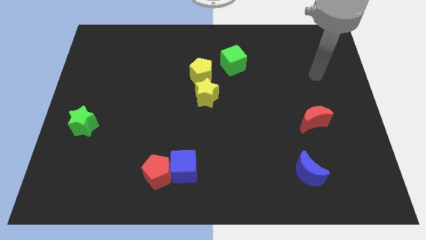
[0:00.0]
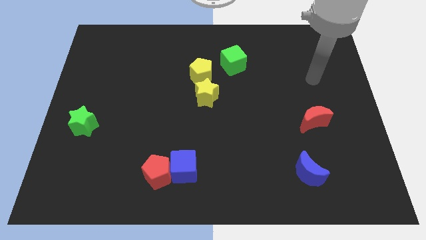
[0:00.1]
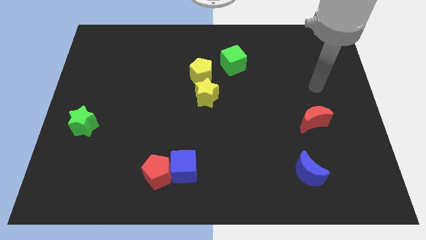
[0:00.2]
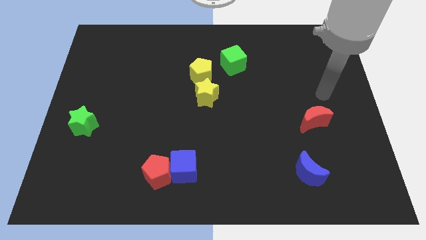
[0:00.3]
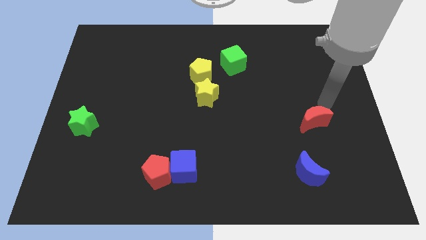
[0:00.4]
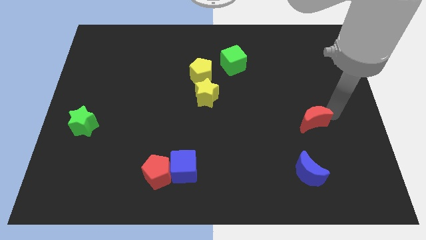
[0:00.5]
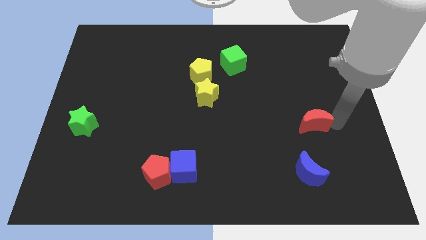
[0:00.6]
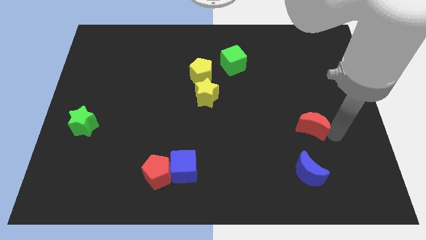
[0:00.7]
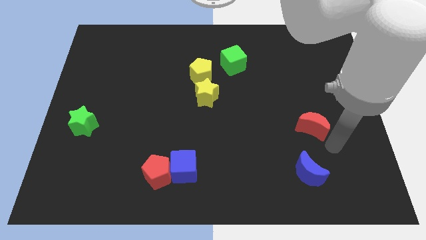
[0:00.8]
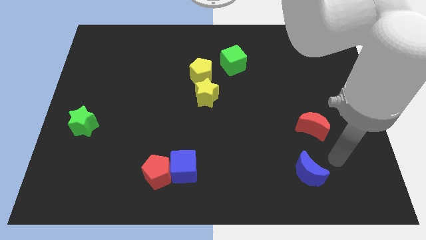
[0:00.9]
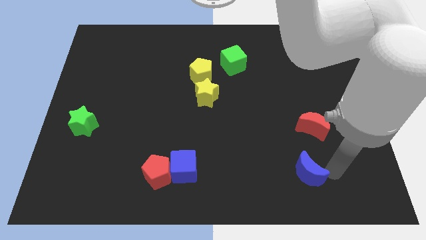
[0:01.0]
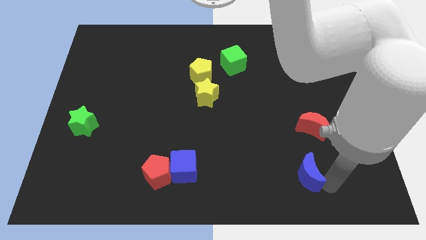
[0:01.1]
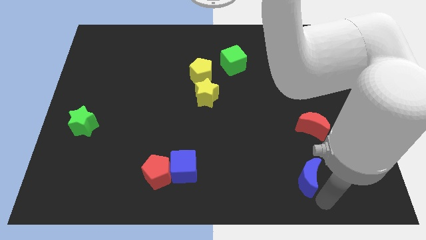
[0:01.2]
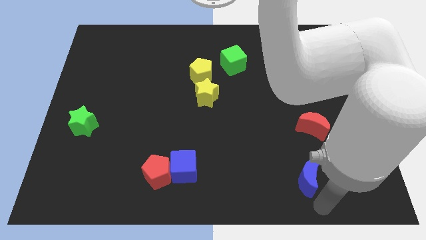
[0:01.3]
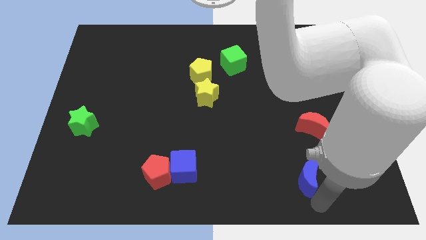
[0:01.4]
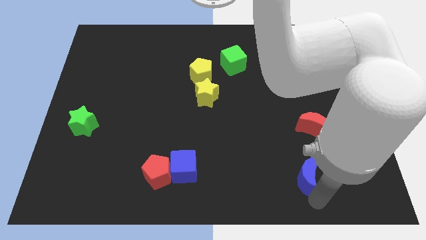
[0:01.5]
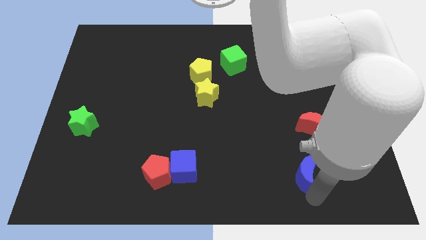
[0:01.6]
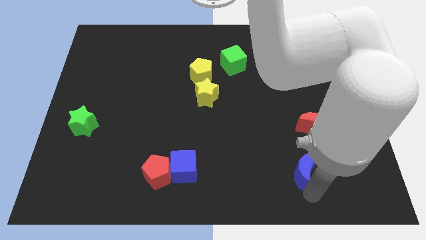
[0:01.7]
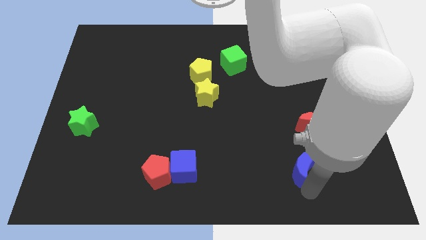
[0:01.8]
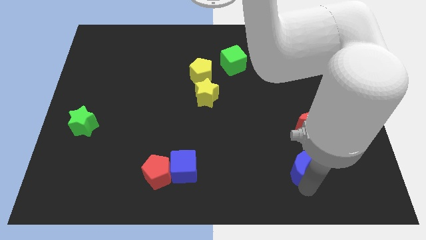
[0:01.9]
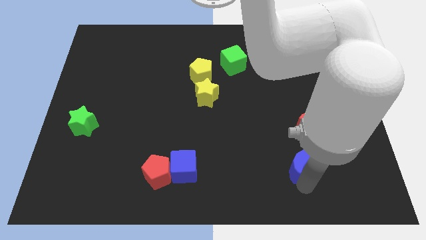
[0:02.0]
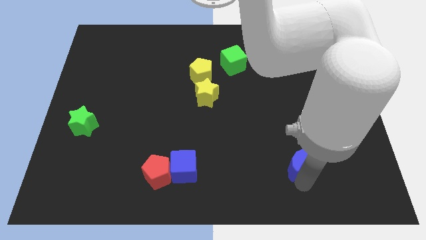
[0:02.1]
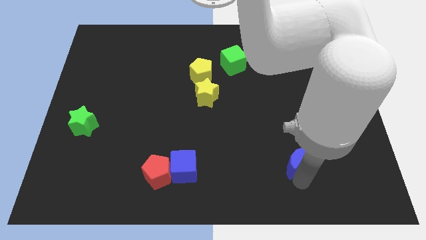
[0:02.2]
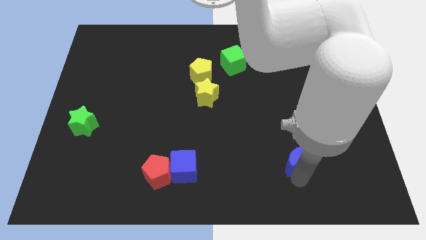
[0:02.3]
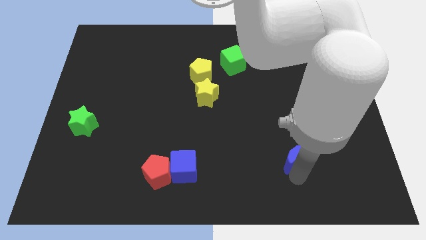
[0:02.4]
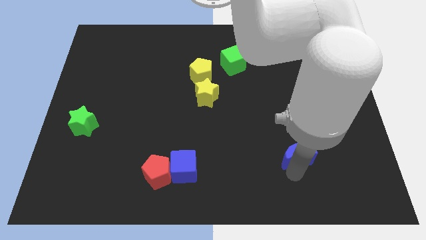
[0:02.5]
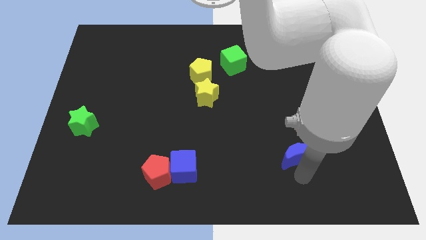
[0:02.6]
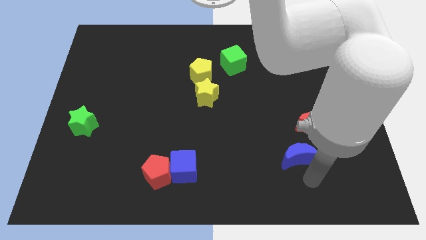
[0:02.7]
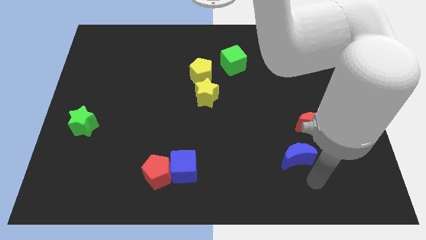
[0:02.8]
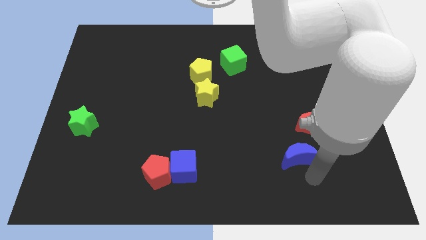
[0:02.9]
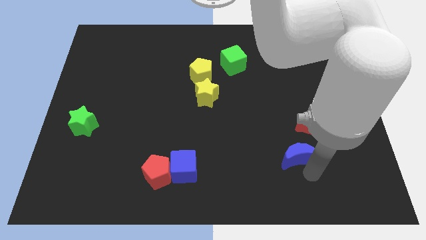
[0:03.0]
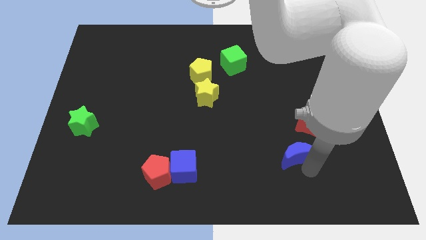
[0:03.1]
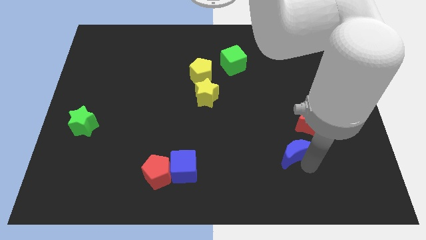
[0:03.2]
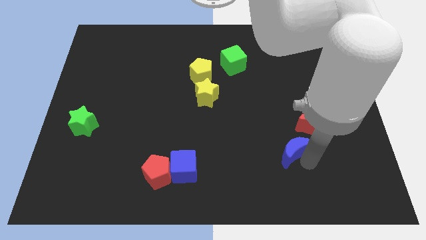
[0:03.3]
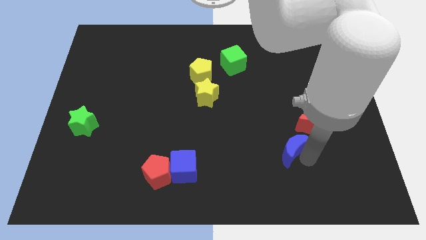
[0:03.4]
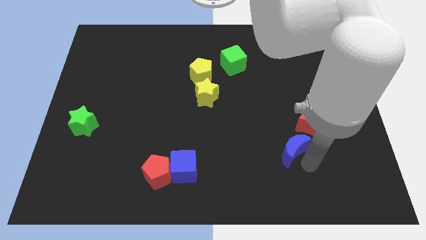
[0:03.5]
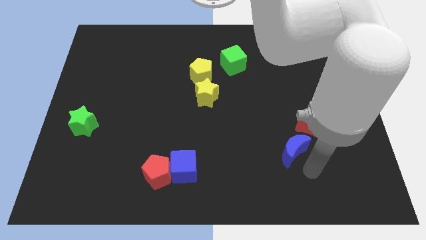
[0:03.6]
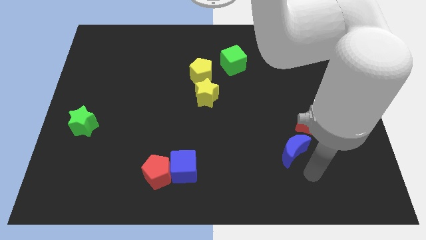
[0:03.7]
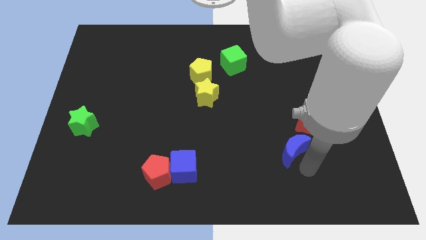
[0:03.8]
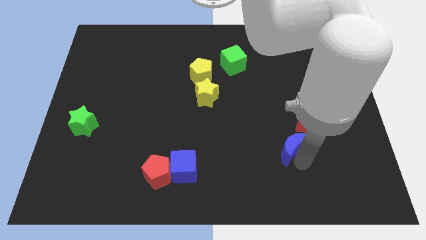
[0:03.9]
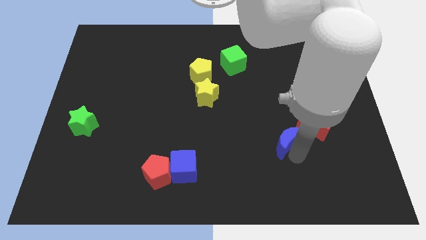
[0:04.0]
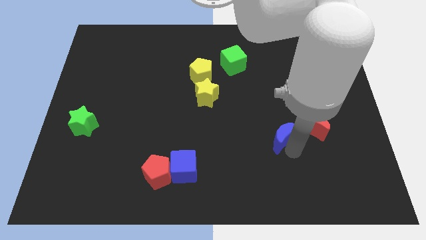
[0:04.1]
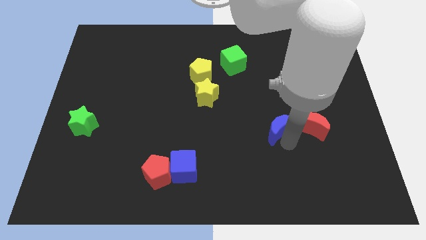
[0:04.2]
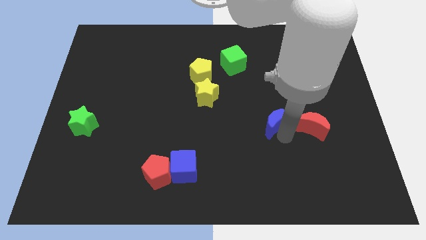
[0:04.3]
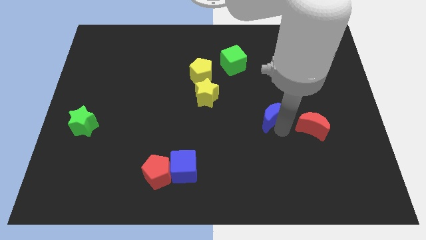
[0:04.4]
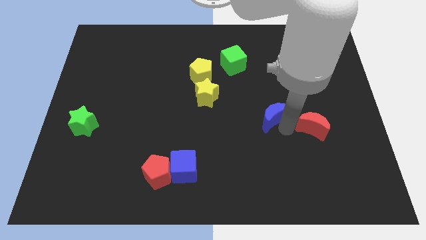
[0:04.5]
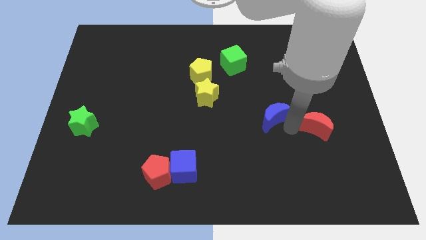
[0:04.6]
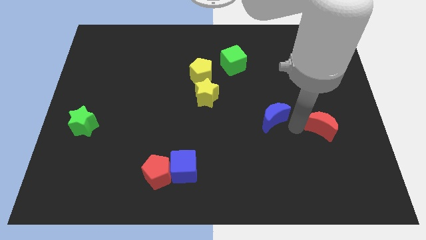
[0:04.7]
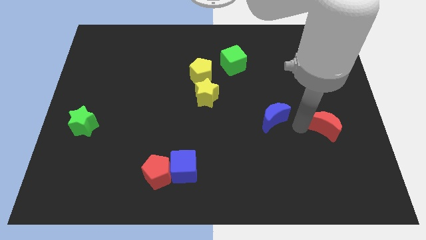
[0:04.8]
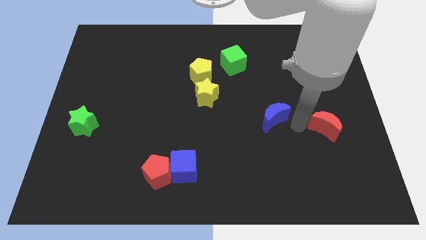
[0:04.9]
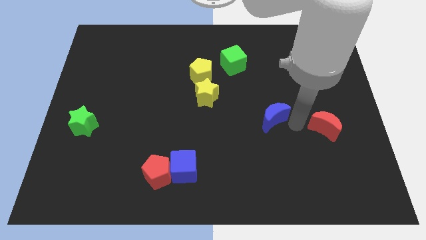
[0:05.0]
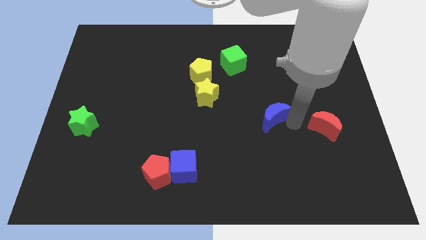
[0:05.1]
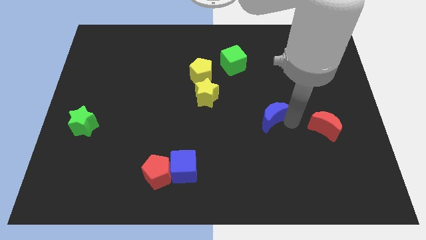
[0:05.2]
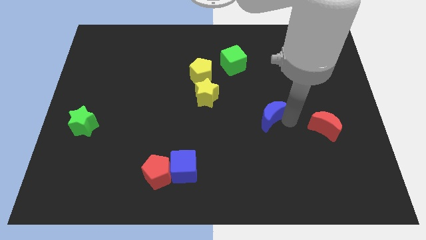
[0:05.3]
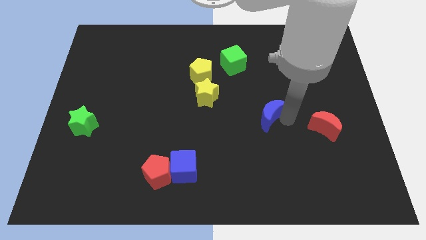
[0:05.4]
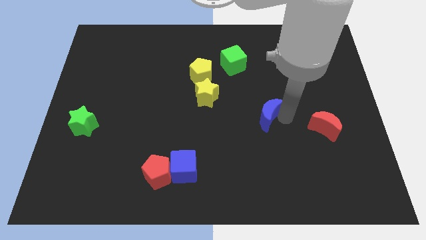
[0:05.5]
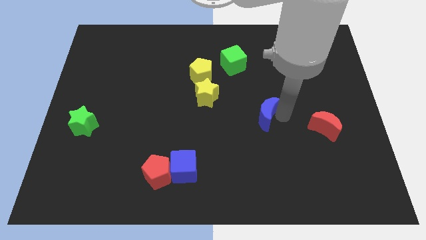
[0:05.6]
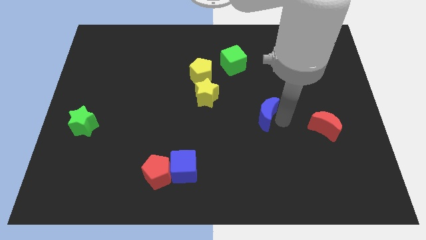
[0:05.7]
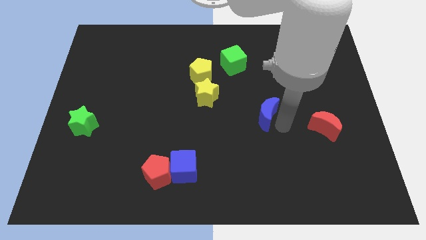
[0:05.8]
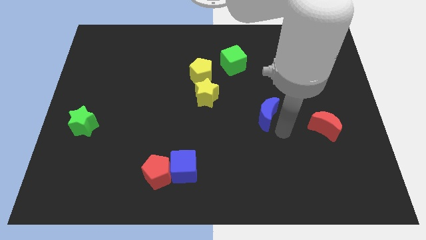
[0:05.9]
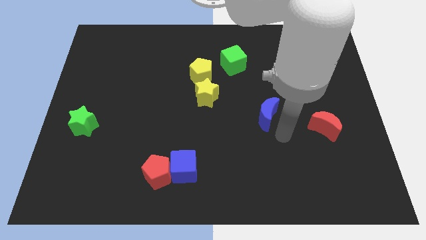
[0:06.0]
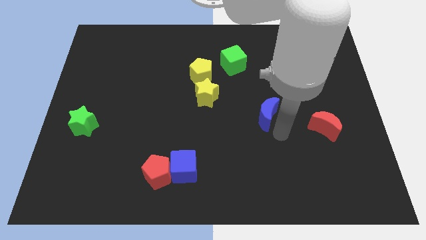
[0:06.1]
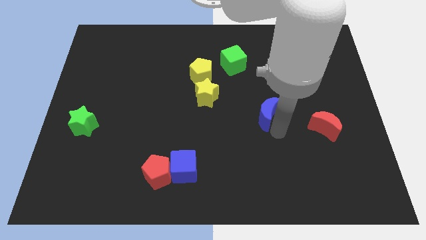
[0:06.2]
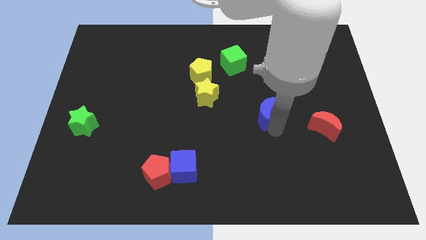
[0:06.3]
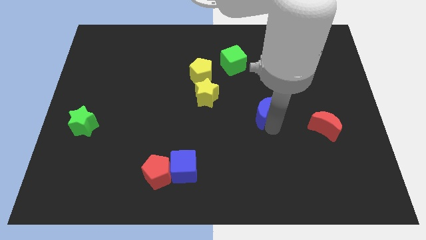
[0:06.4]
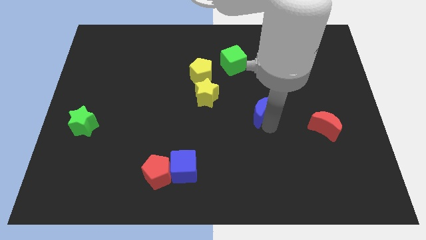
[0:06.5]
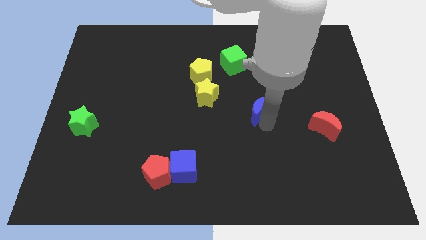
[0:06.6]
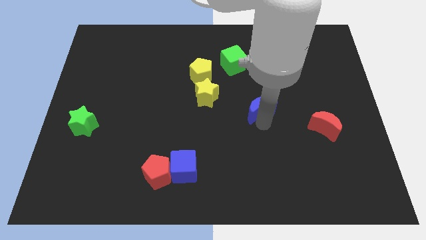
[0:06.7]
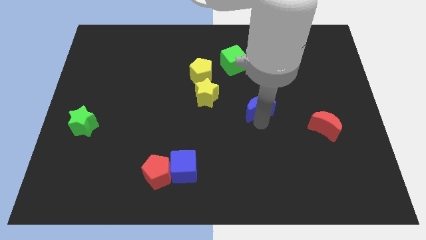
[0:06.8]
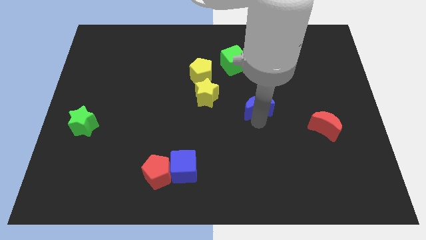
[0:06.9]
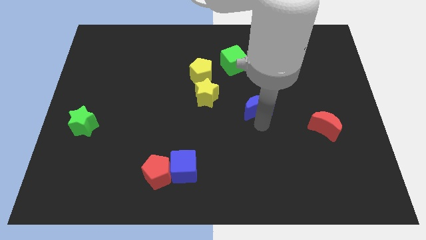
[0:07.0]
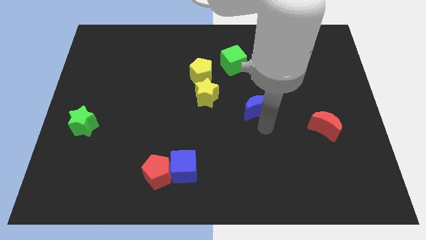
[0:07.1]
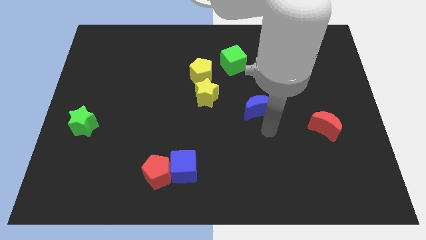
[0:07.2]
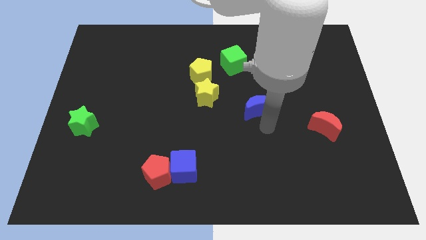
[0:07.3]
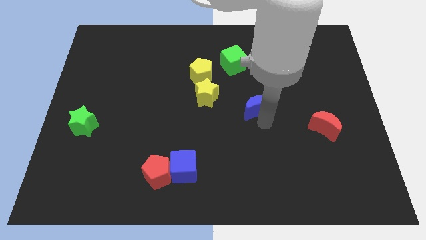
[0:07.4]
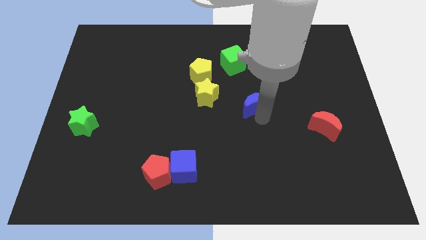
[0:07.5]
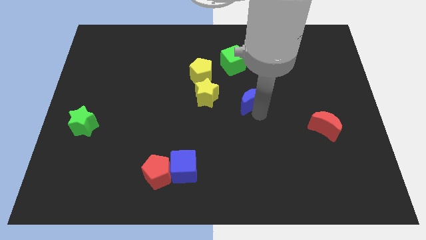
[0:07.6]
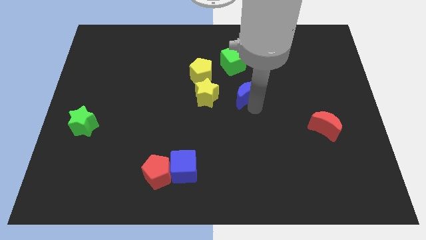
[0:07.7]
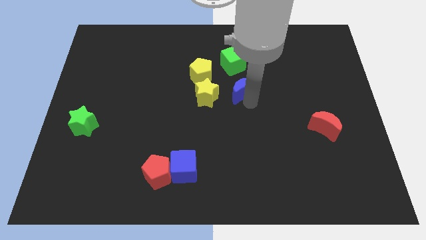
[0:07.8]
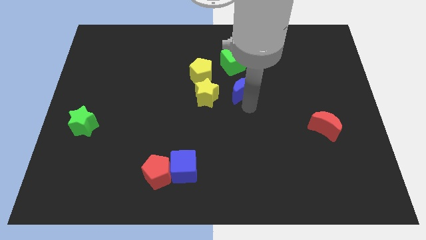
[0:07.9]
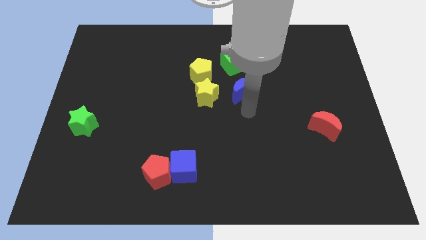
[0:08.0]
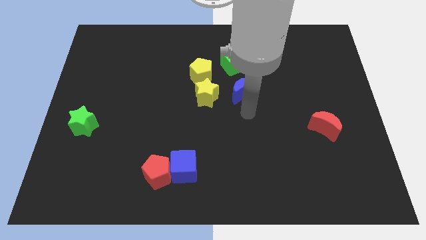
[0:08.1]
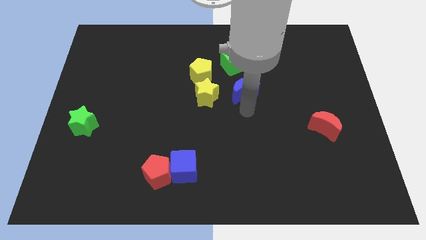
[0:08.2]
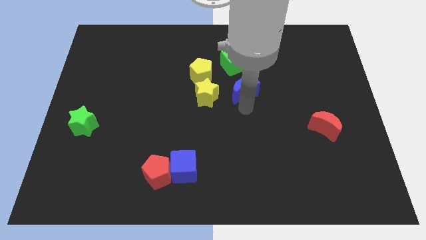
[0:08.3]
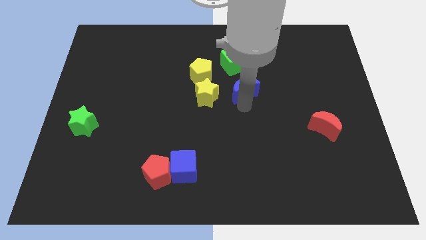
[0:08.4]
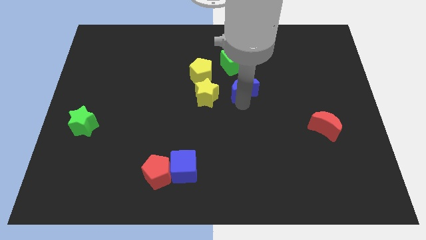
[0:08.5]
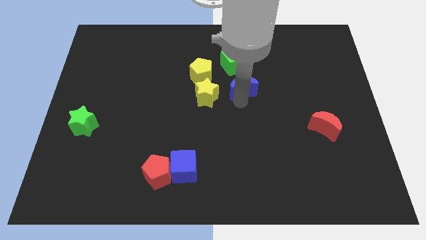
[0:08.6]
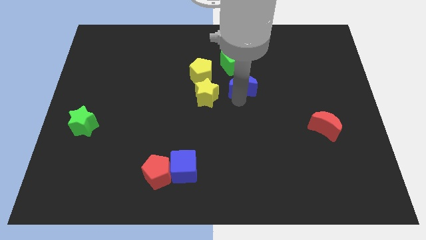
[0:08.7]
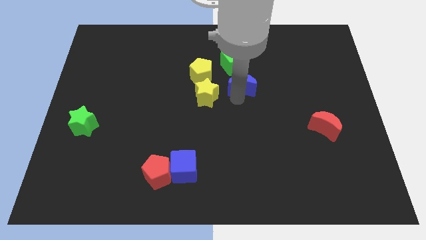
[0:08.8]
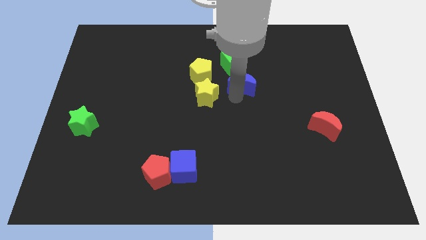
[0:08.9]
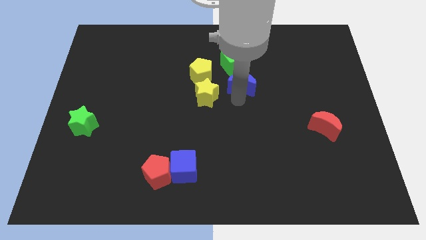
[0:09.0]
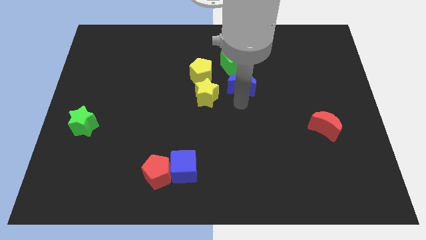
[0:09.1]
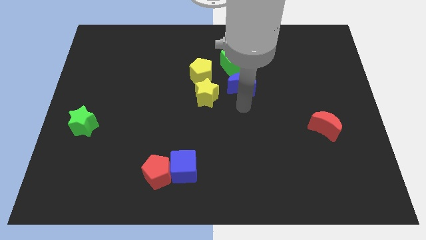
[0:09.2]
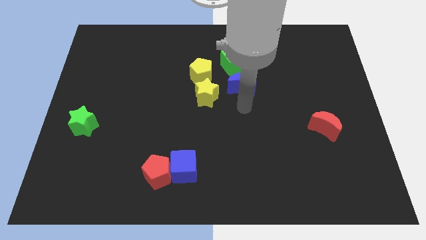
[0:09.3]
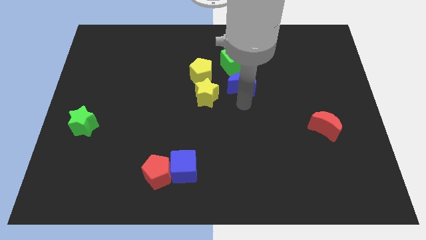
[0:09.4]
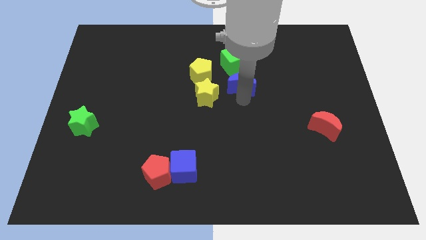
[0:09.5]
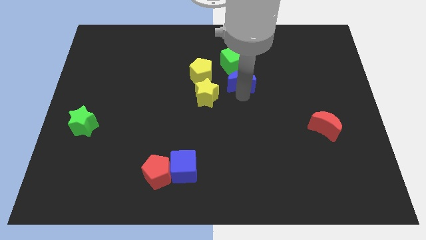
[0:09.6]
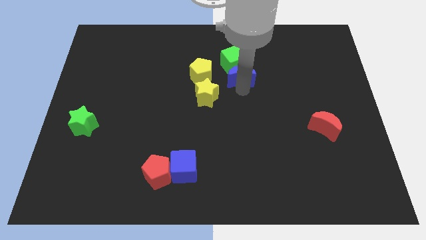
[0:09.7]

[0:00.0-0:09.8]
push the blue moon to the green cube
